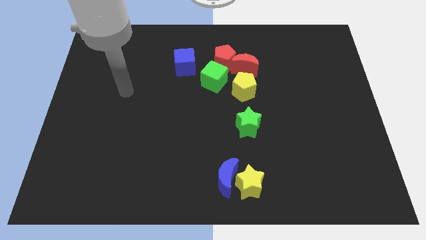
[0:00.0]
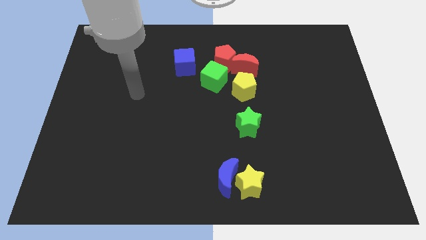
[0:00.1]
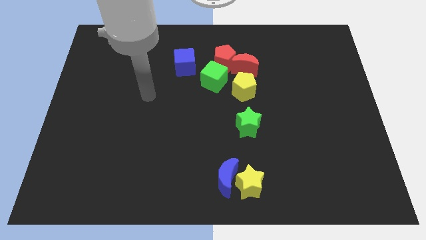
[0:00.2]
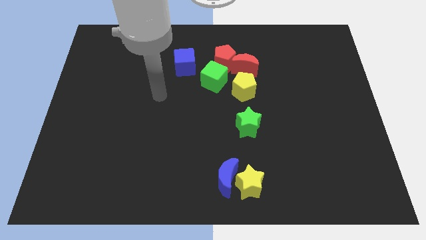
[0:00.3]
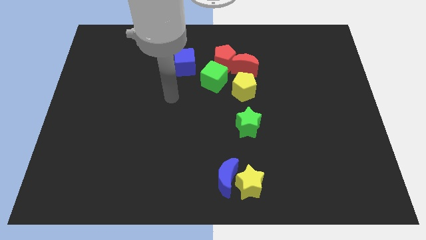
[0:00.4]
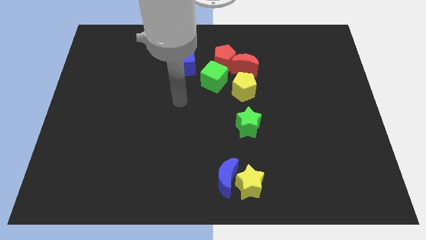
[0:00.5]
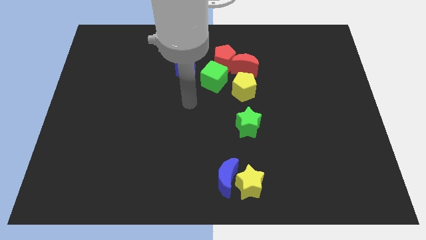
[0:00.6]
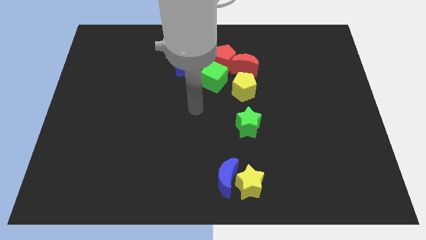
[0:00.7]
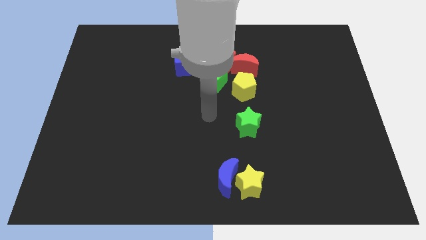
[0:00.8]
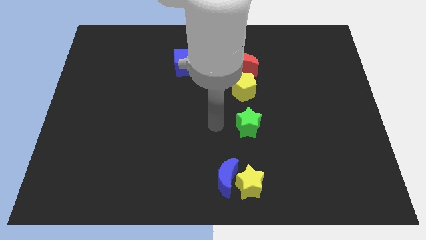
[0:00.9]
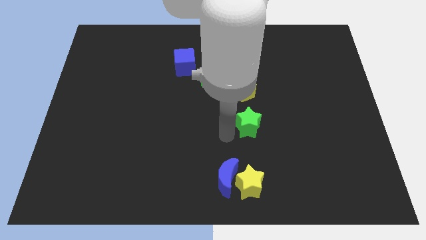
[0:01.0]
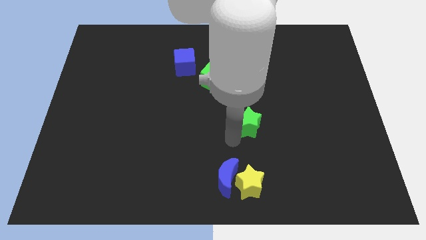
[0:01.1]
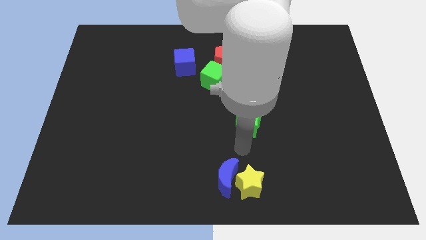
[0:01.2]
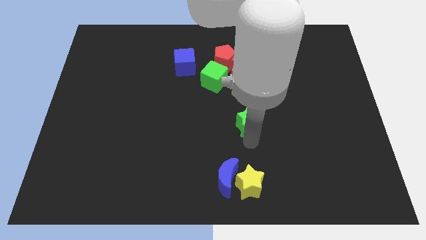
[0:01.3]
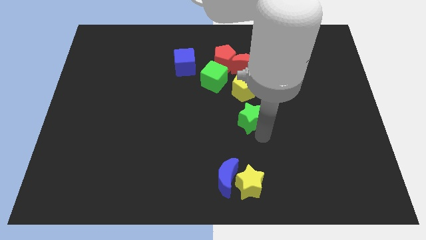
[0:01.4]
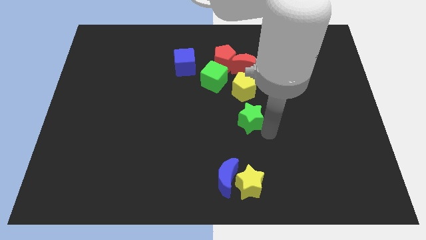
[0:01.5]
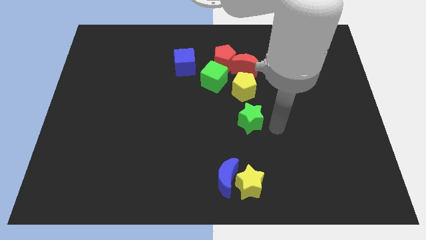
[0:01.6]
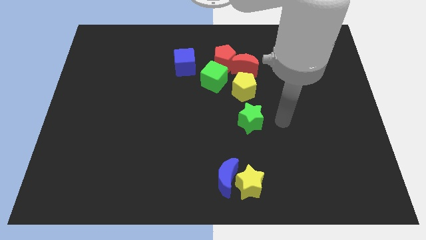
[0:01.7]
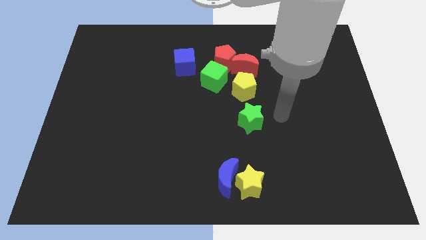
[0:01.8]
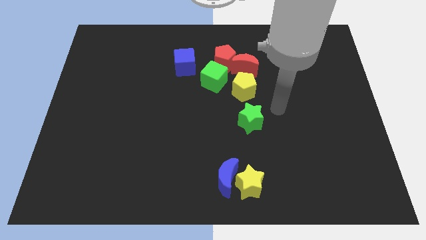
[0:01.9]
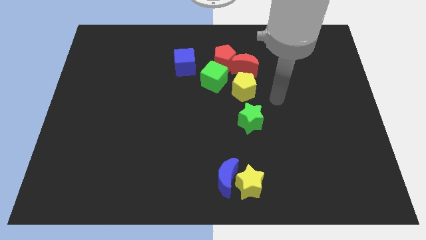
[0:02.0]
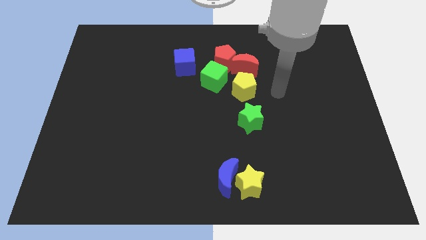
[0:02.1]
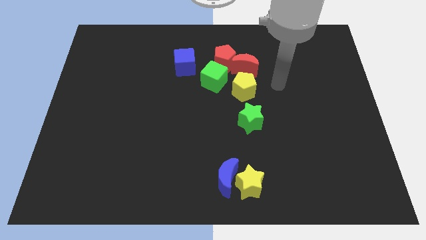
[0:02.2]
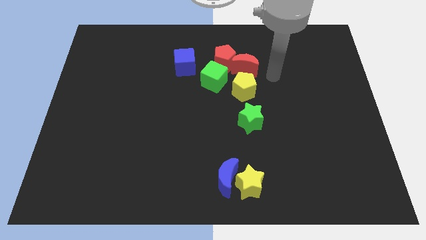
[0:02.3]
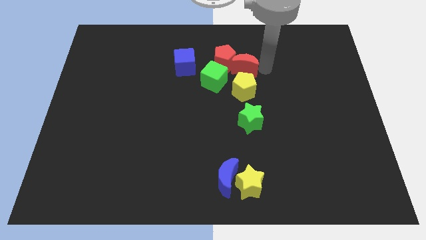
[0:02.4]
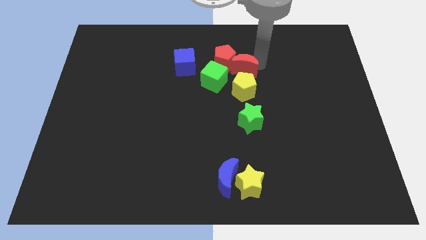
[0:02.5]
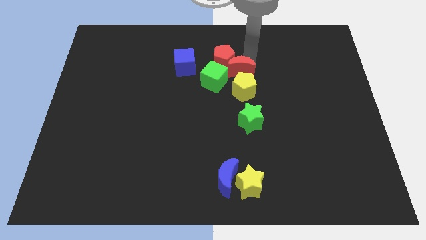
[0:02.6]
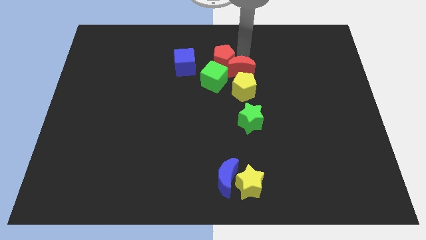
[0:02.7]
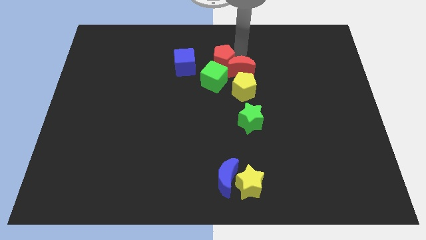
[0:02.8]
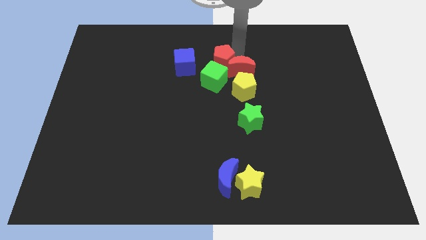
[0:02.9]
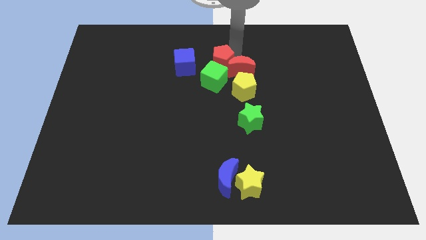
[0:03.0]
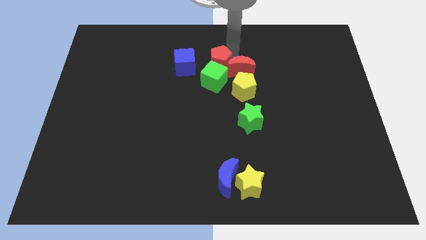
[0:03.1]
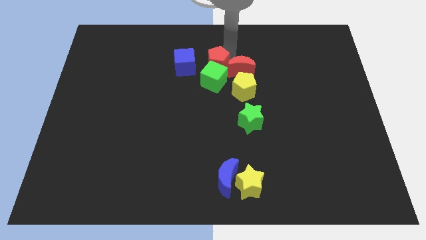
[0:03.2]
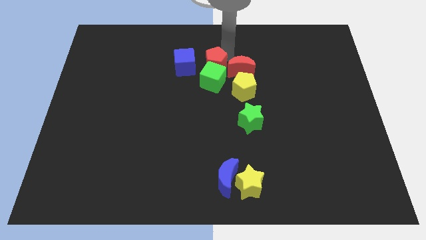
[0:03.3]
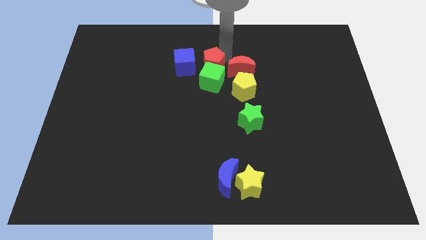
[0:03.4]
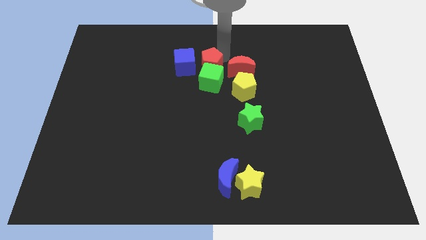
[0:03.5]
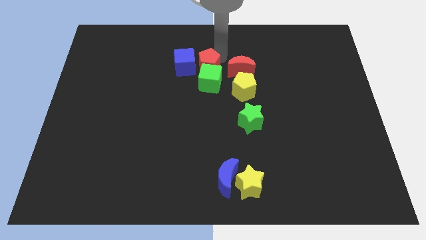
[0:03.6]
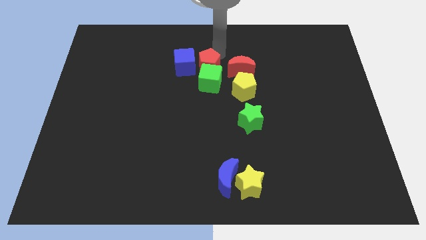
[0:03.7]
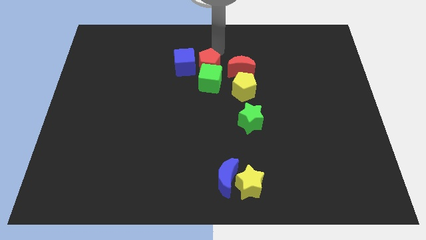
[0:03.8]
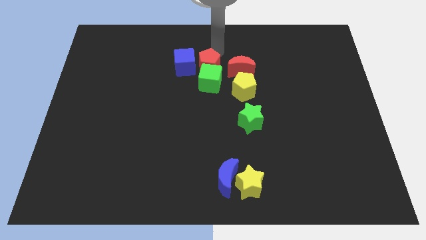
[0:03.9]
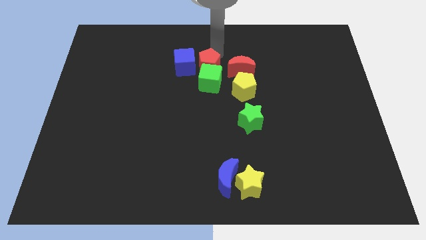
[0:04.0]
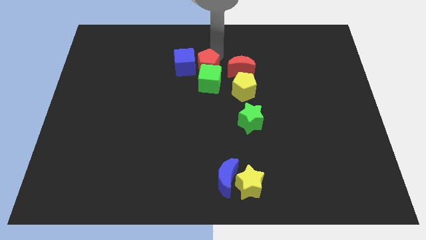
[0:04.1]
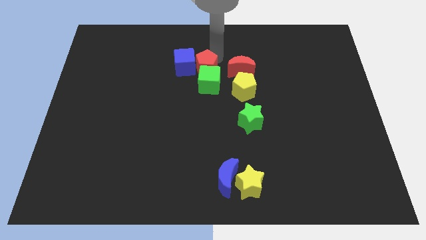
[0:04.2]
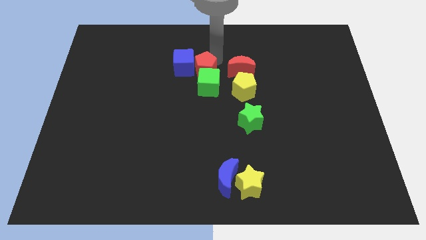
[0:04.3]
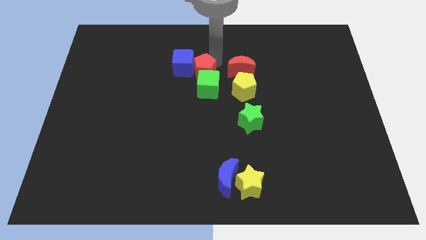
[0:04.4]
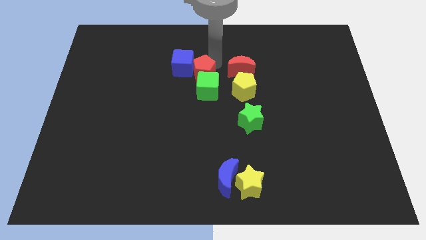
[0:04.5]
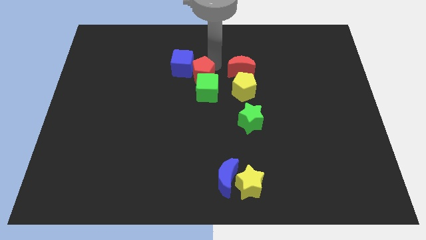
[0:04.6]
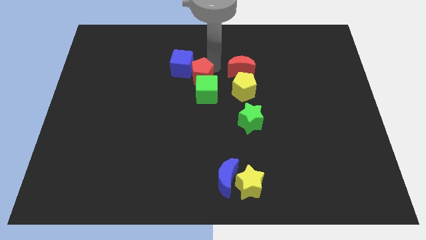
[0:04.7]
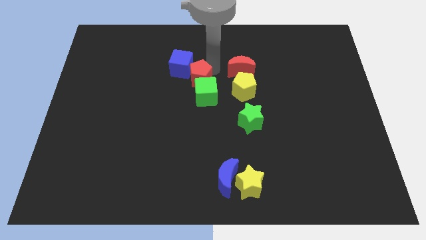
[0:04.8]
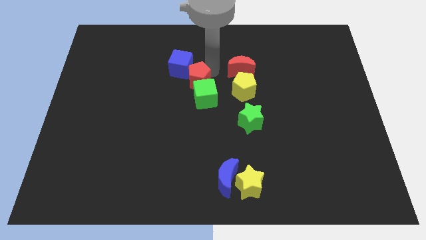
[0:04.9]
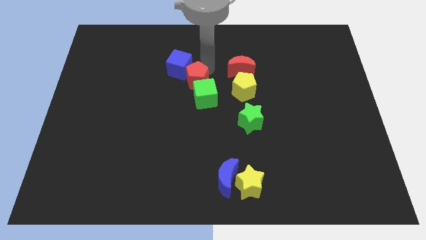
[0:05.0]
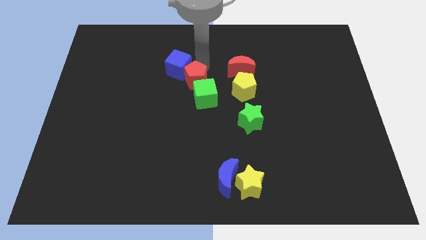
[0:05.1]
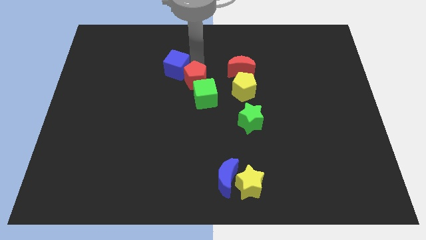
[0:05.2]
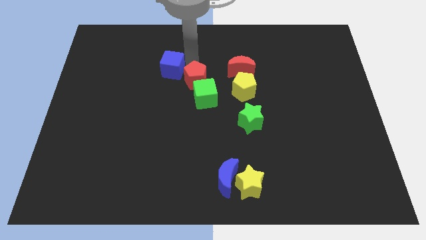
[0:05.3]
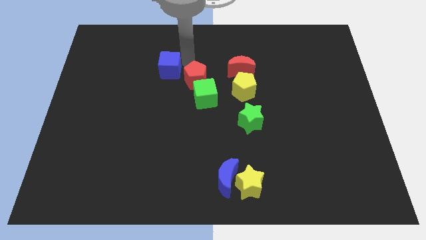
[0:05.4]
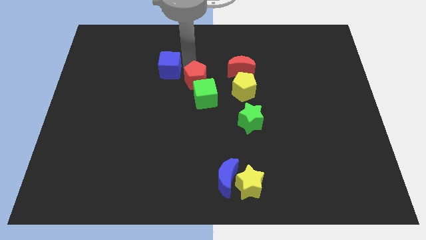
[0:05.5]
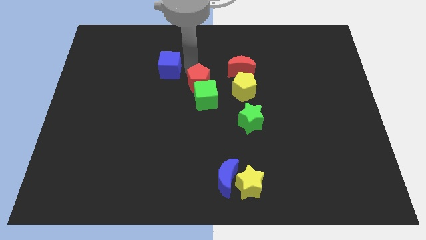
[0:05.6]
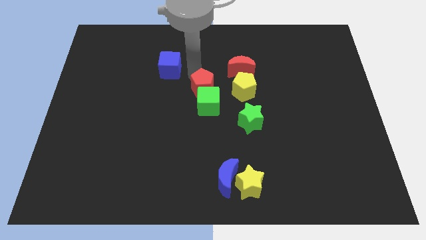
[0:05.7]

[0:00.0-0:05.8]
move the red pentagon downwards a little

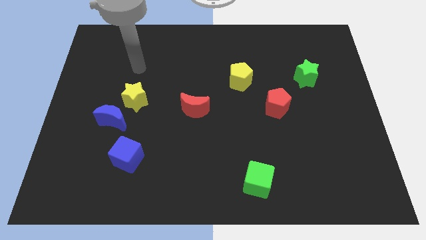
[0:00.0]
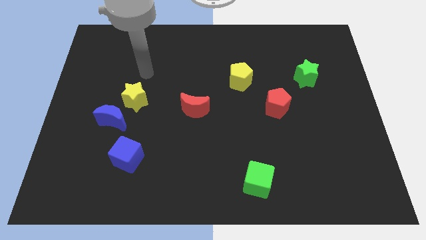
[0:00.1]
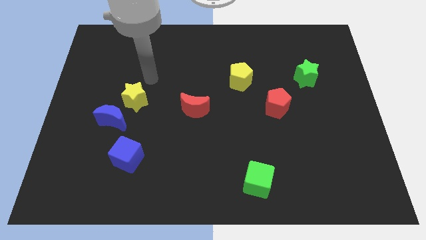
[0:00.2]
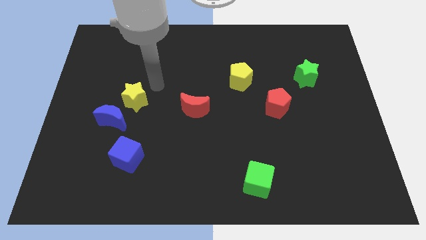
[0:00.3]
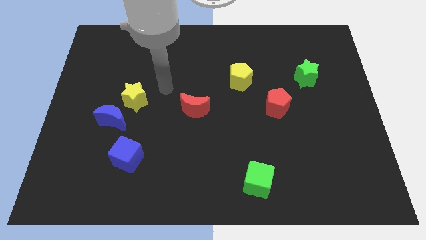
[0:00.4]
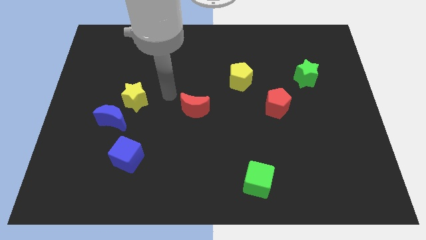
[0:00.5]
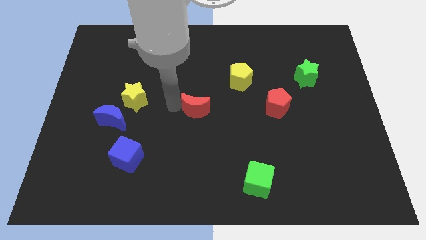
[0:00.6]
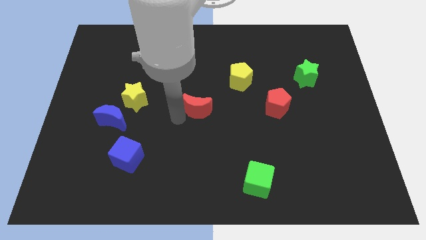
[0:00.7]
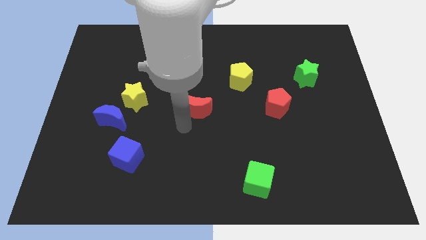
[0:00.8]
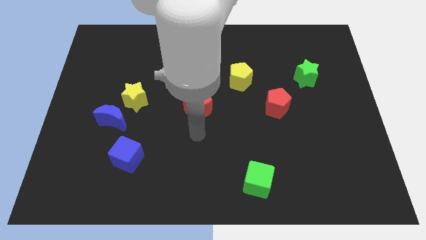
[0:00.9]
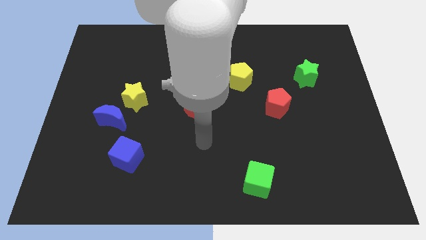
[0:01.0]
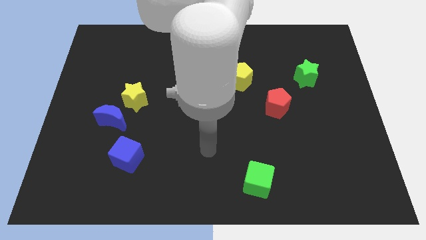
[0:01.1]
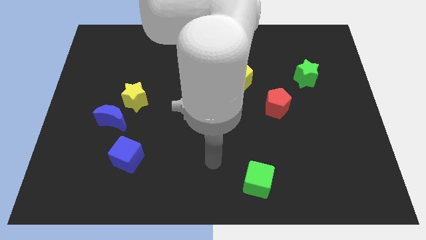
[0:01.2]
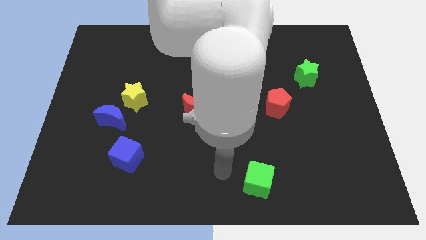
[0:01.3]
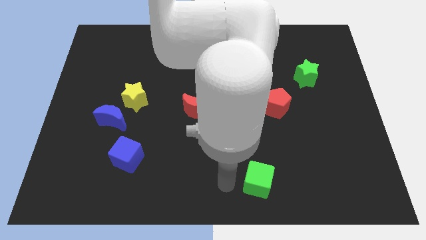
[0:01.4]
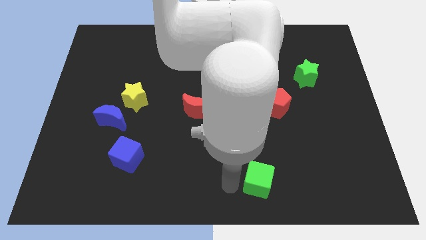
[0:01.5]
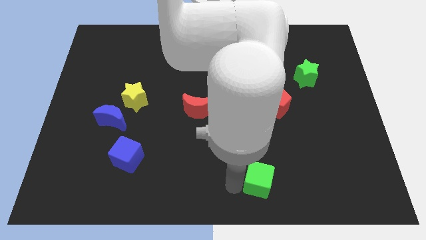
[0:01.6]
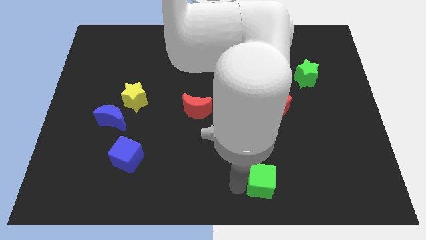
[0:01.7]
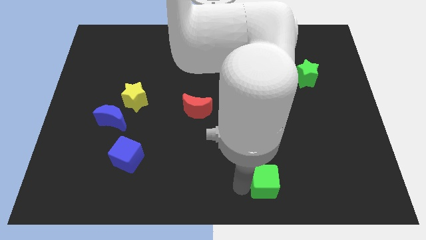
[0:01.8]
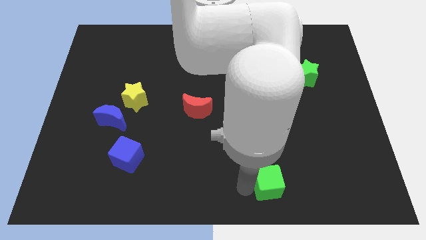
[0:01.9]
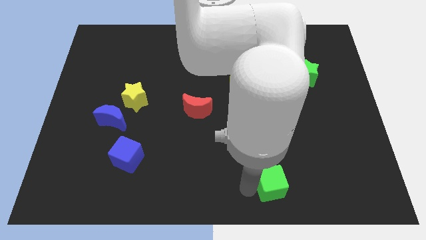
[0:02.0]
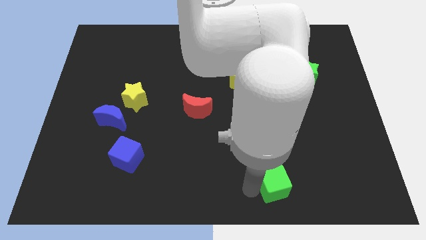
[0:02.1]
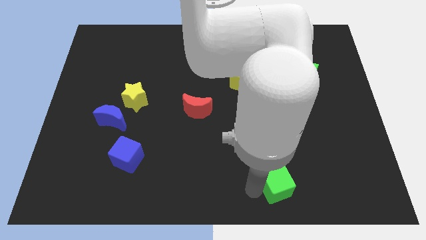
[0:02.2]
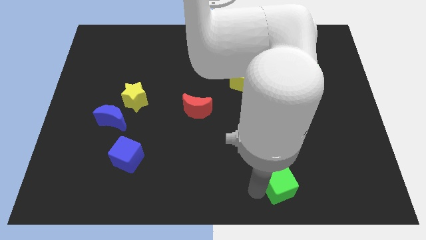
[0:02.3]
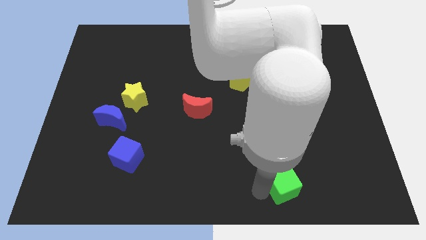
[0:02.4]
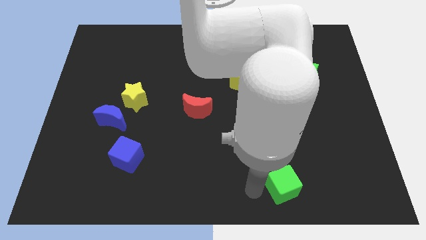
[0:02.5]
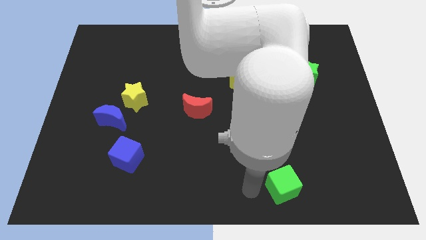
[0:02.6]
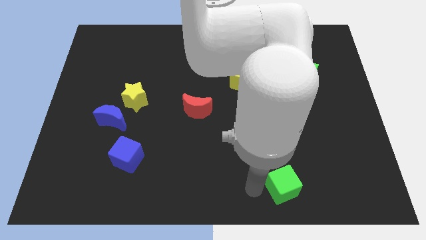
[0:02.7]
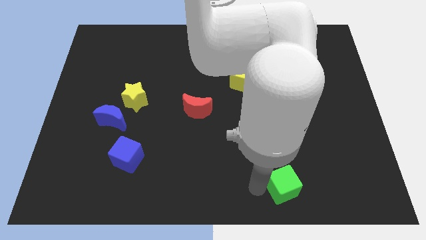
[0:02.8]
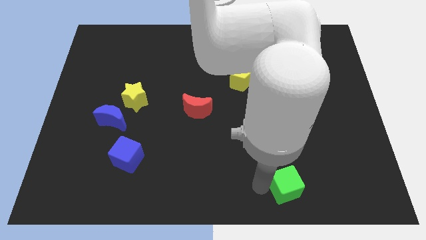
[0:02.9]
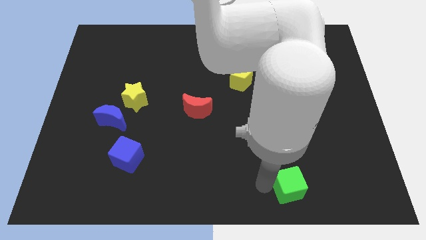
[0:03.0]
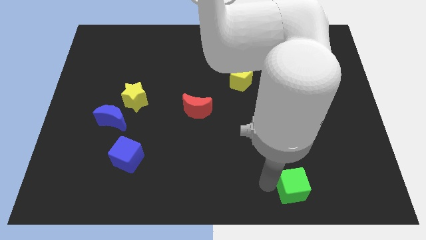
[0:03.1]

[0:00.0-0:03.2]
push the green cube slightly to the right
